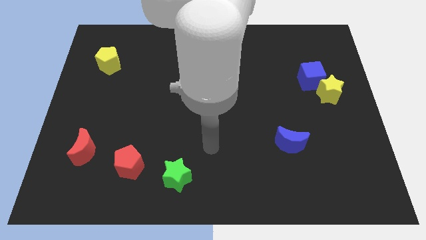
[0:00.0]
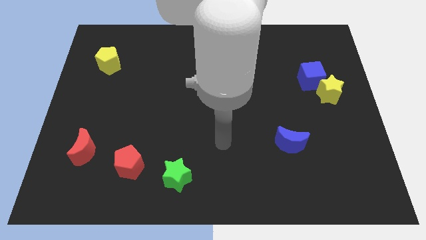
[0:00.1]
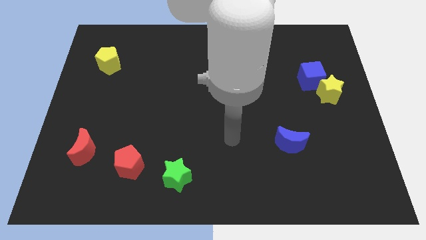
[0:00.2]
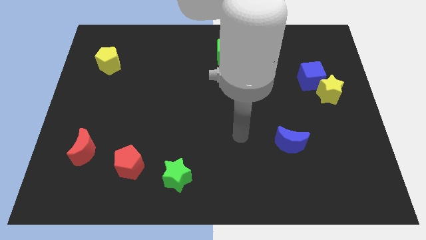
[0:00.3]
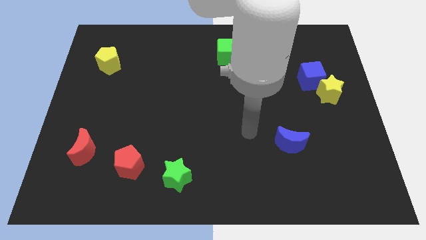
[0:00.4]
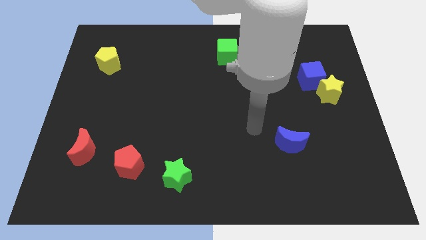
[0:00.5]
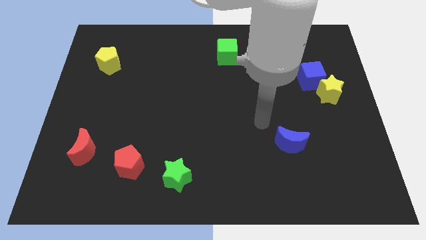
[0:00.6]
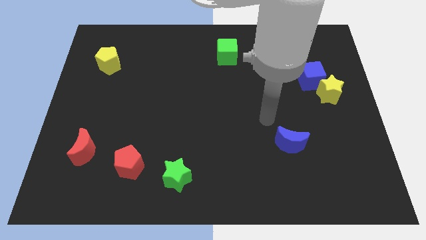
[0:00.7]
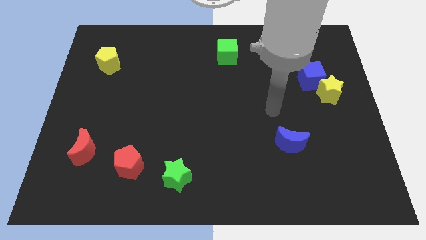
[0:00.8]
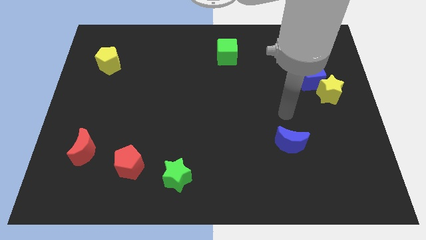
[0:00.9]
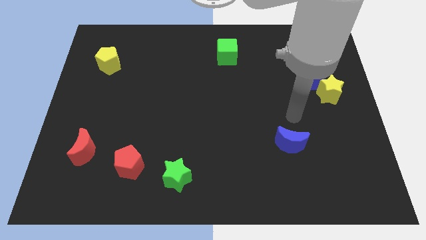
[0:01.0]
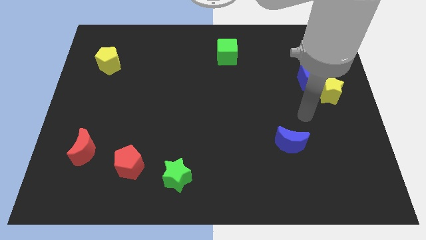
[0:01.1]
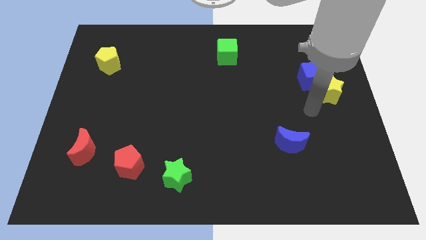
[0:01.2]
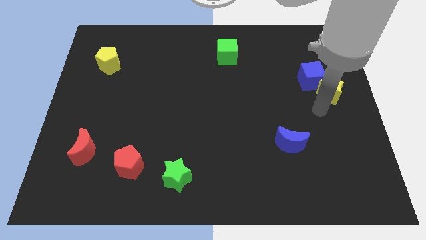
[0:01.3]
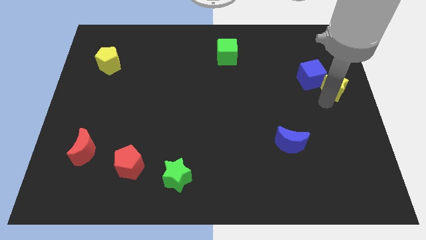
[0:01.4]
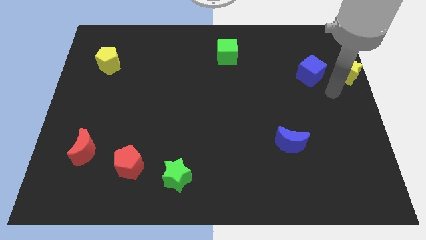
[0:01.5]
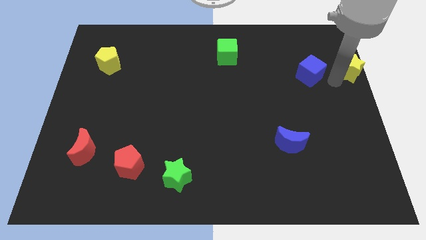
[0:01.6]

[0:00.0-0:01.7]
separate the blue cube from the yellow star

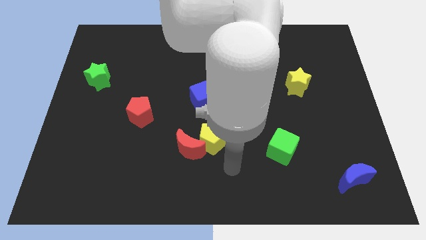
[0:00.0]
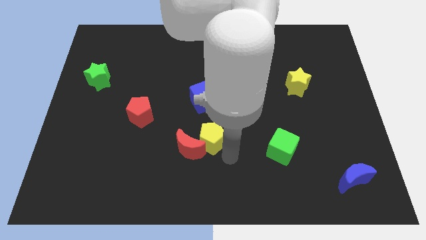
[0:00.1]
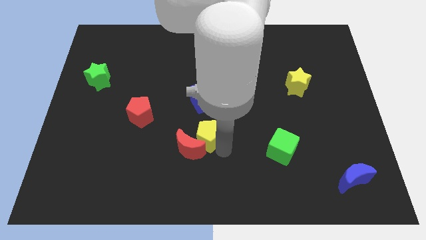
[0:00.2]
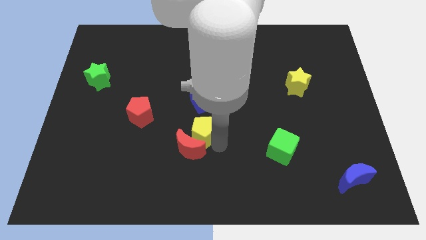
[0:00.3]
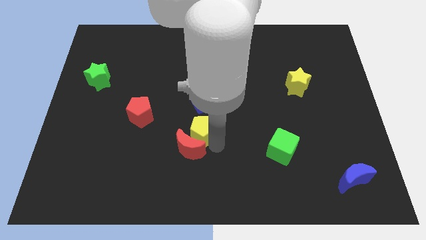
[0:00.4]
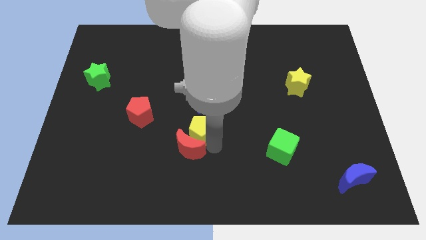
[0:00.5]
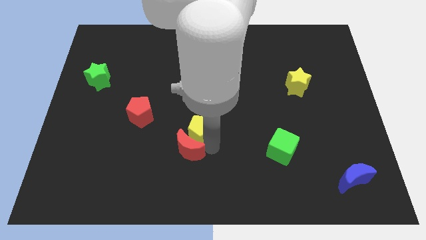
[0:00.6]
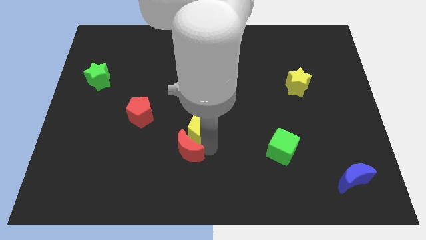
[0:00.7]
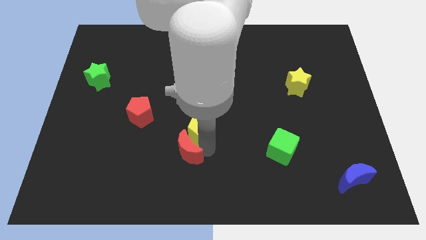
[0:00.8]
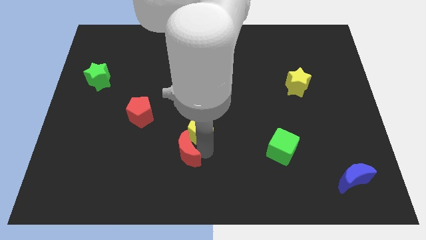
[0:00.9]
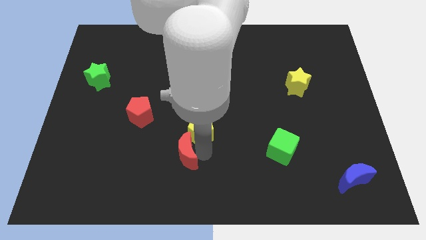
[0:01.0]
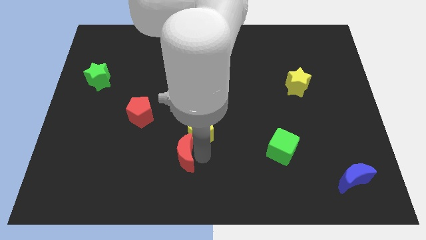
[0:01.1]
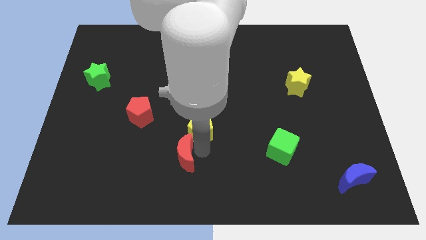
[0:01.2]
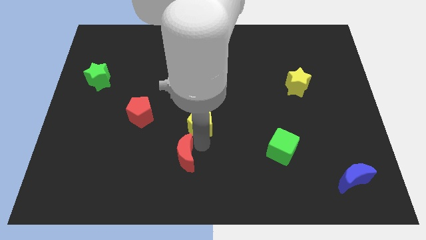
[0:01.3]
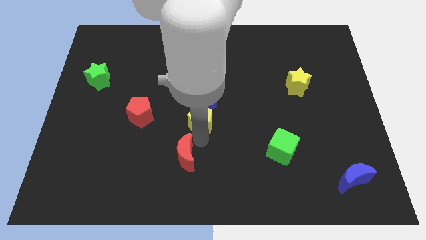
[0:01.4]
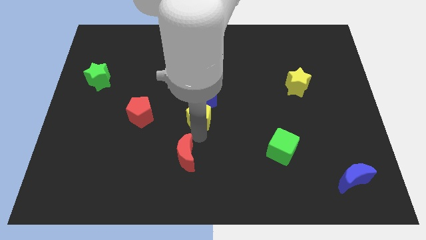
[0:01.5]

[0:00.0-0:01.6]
move the red moon away from the yellow pentagon

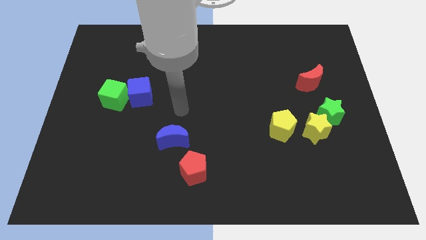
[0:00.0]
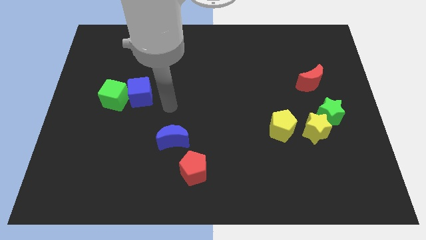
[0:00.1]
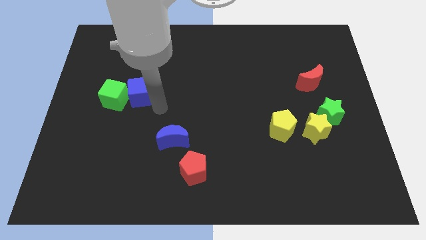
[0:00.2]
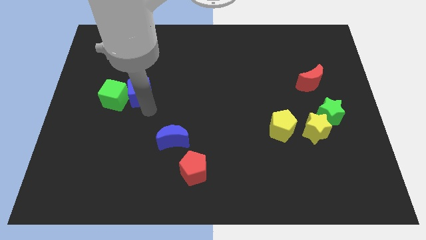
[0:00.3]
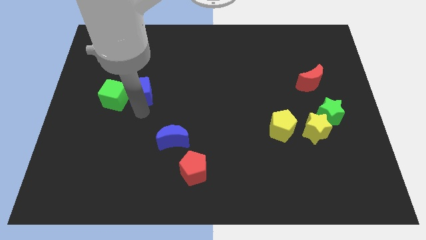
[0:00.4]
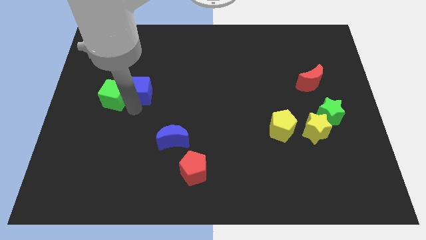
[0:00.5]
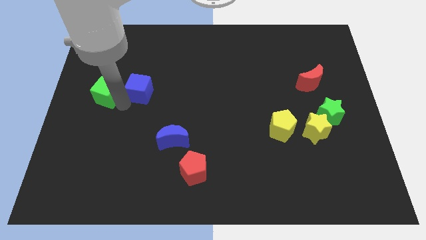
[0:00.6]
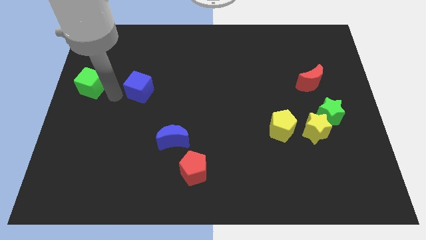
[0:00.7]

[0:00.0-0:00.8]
pull the blue cube apart from the green cube

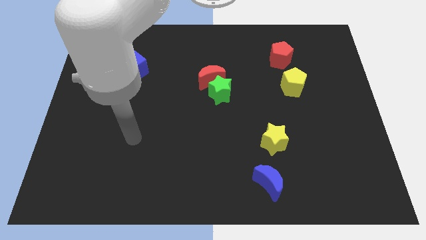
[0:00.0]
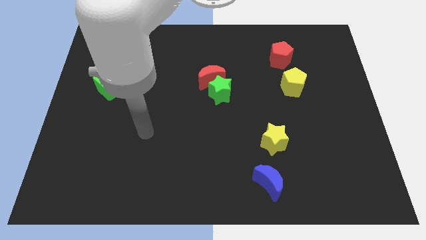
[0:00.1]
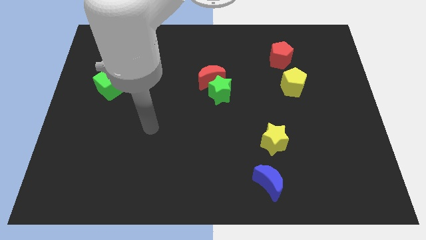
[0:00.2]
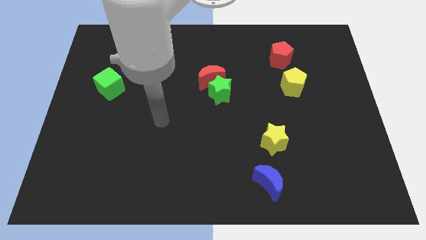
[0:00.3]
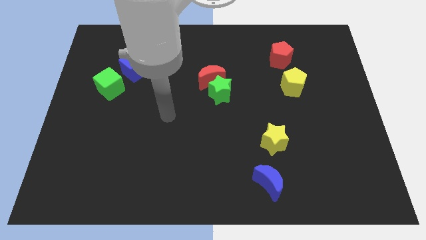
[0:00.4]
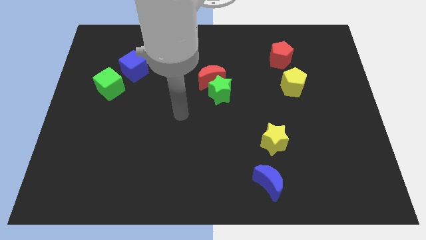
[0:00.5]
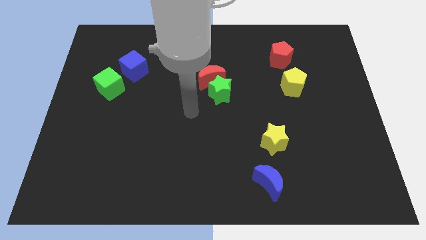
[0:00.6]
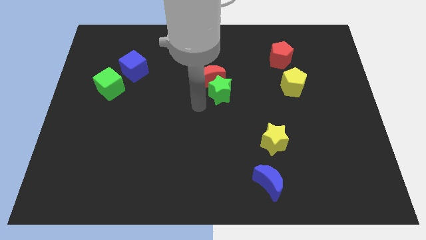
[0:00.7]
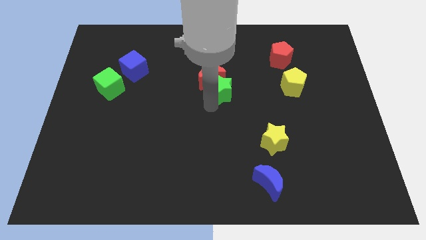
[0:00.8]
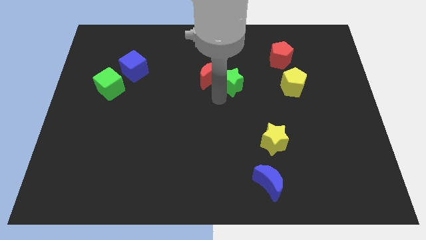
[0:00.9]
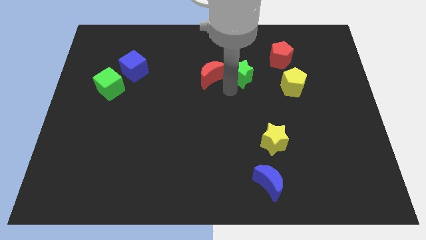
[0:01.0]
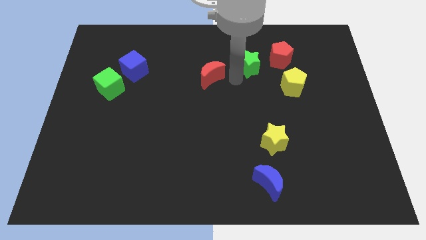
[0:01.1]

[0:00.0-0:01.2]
pull the red moon apart from the green star

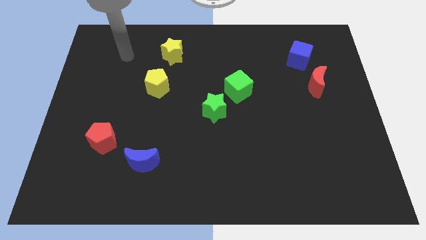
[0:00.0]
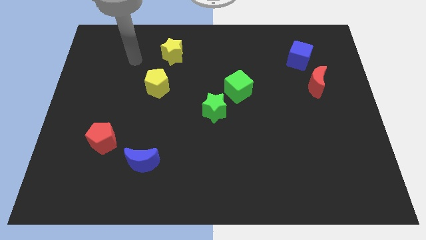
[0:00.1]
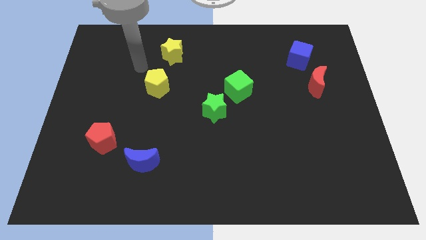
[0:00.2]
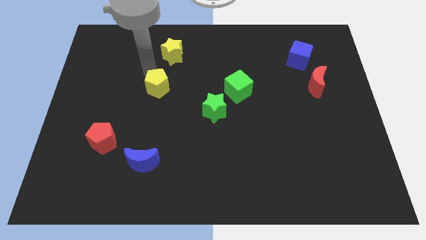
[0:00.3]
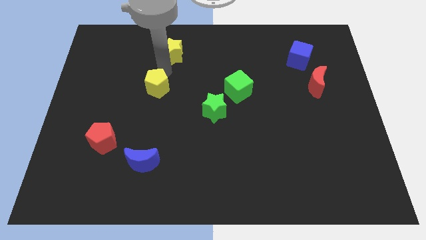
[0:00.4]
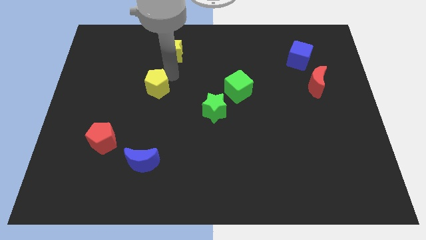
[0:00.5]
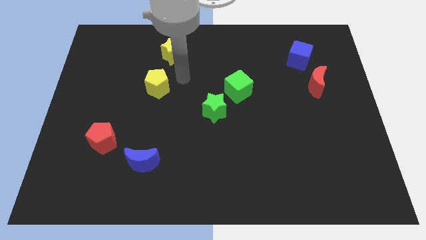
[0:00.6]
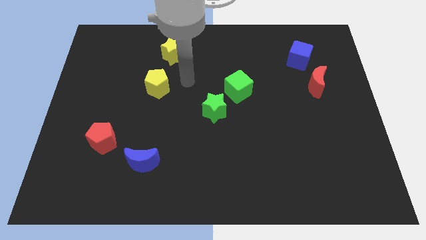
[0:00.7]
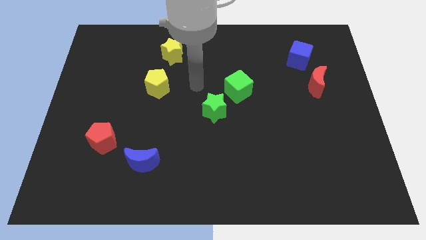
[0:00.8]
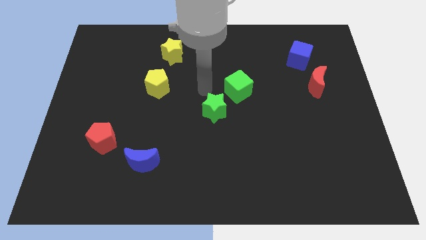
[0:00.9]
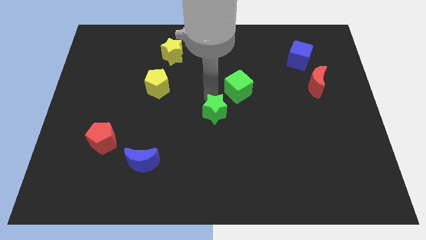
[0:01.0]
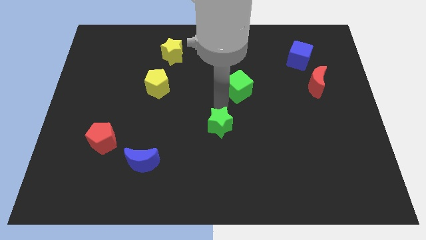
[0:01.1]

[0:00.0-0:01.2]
separate the green cube from the green star

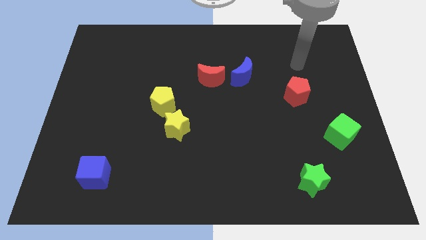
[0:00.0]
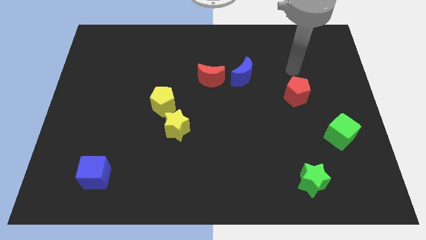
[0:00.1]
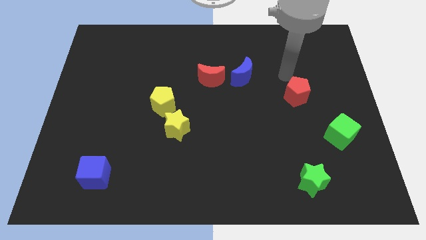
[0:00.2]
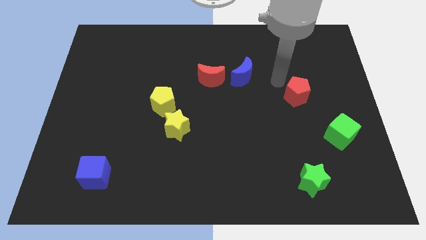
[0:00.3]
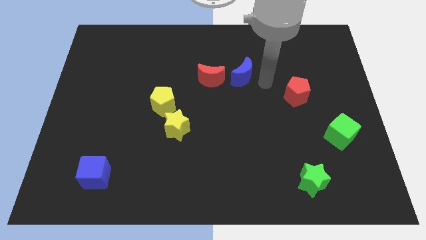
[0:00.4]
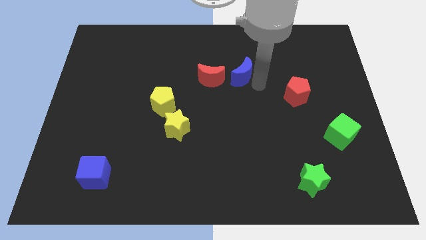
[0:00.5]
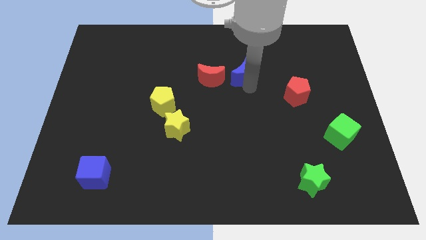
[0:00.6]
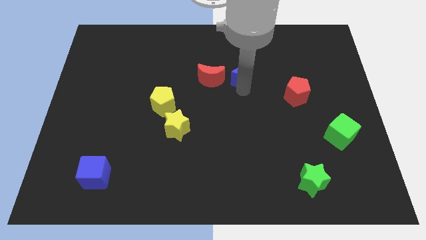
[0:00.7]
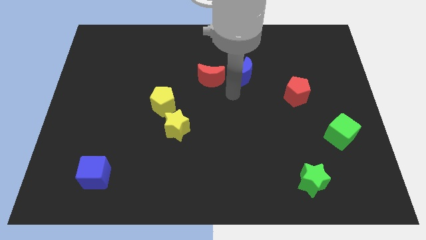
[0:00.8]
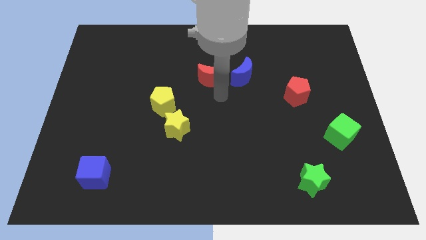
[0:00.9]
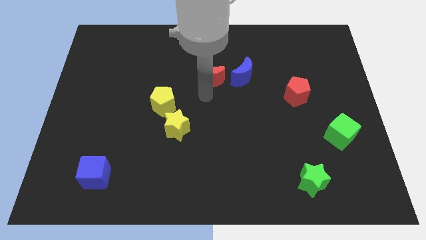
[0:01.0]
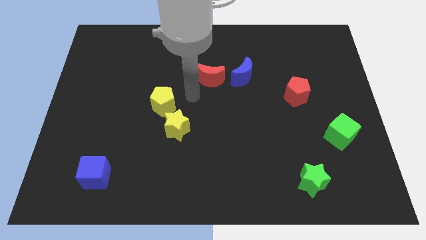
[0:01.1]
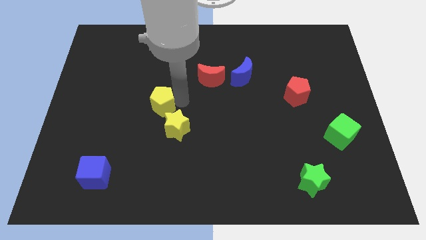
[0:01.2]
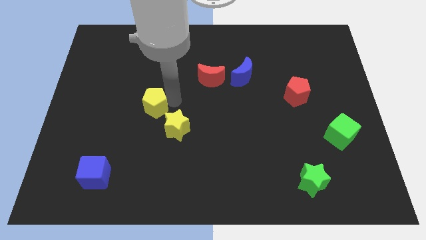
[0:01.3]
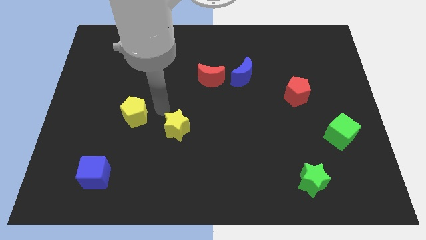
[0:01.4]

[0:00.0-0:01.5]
move the yellow star away from the yellow pentagon

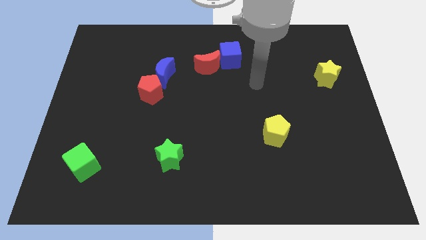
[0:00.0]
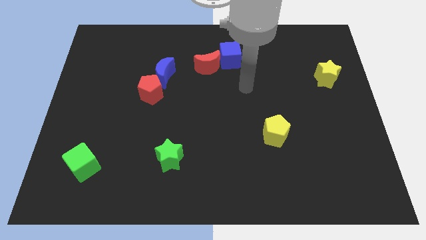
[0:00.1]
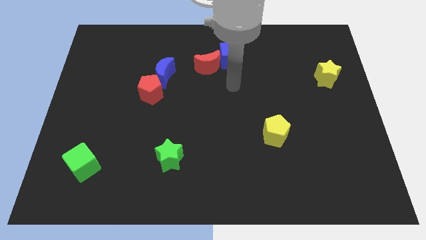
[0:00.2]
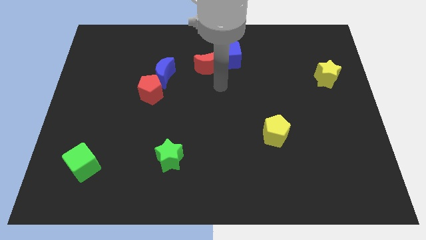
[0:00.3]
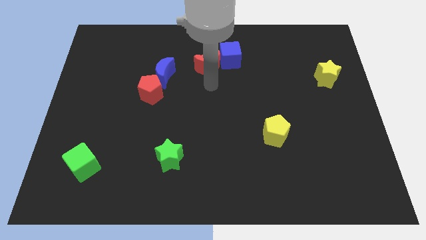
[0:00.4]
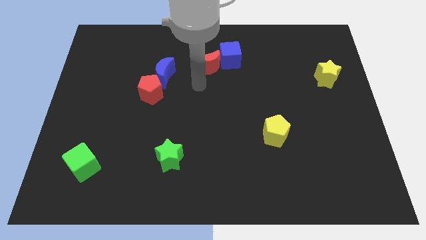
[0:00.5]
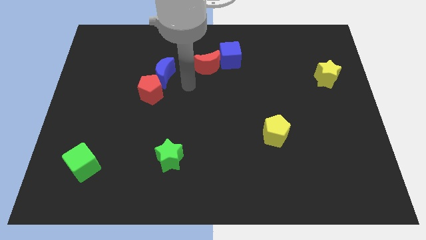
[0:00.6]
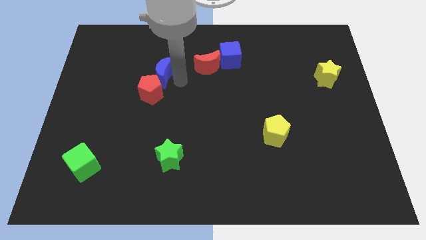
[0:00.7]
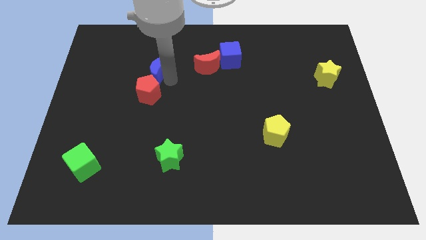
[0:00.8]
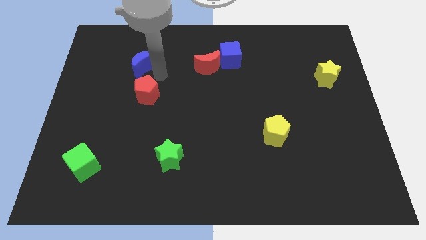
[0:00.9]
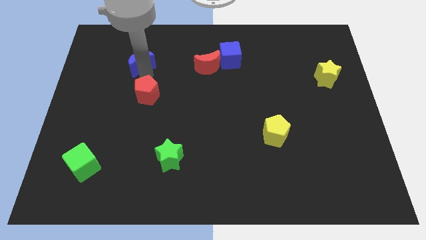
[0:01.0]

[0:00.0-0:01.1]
separate the red pentagon from the blue moon

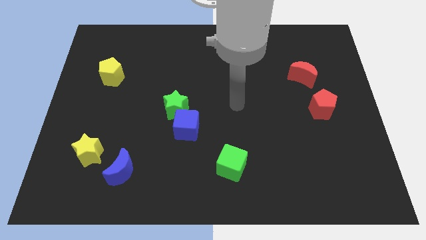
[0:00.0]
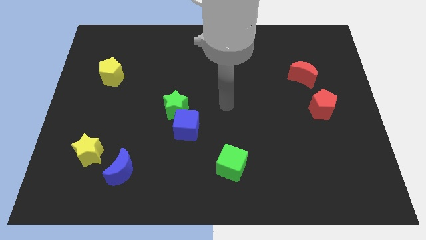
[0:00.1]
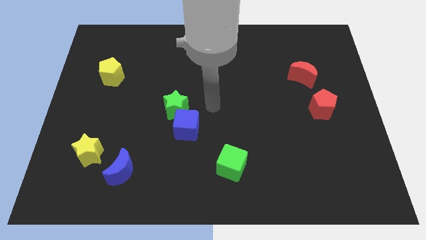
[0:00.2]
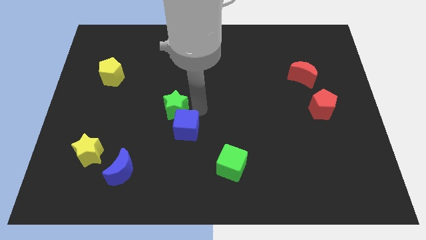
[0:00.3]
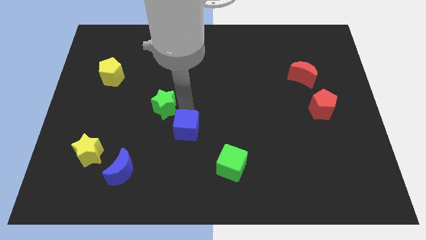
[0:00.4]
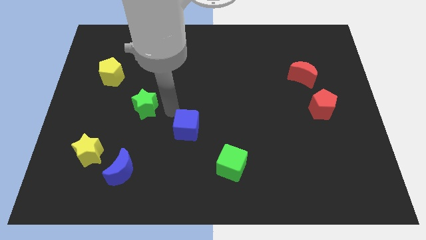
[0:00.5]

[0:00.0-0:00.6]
separate the blue cube from the green star
